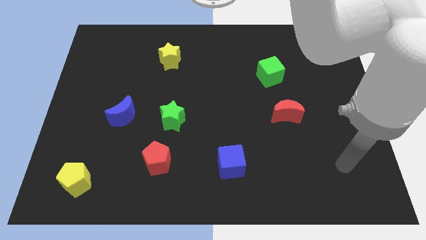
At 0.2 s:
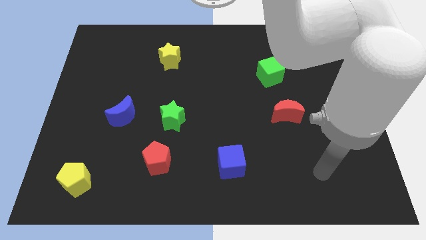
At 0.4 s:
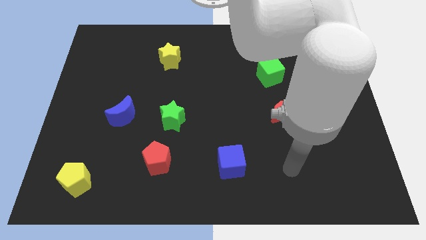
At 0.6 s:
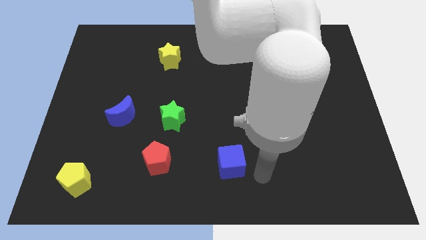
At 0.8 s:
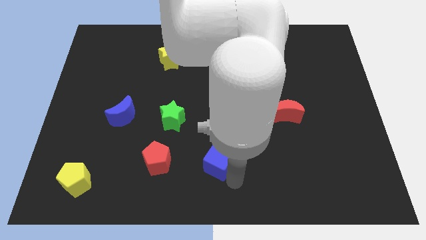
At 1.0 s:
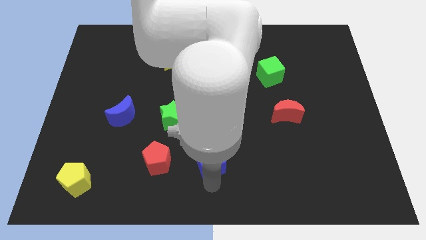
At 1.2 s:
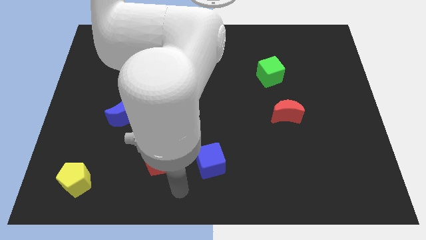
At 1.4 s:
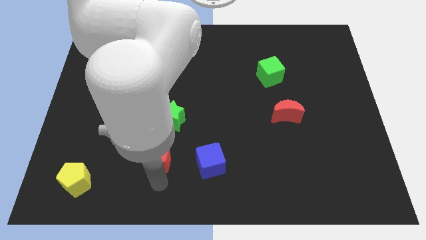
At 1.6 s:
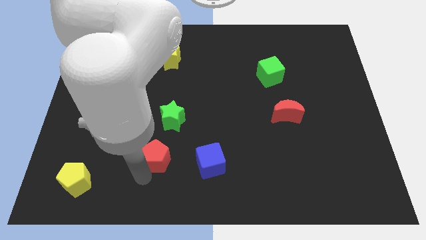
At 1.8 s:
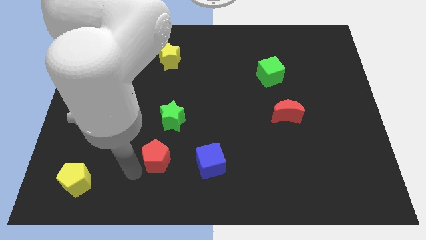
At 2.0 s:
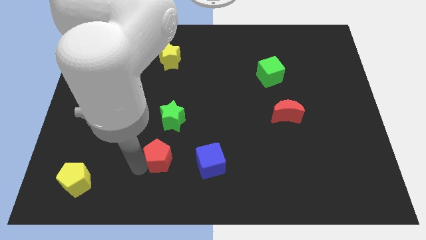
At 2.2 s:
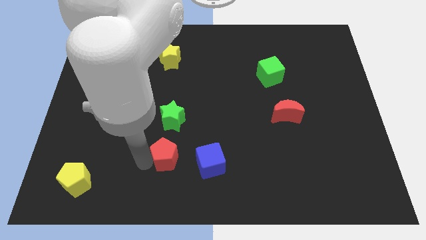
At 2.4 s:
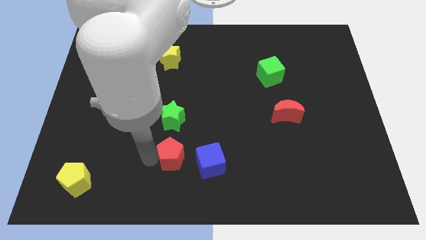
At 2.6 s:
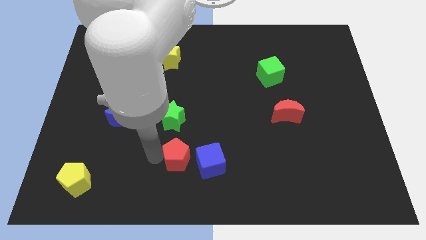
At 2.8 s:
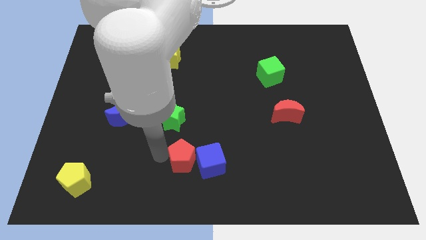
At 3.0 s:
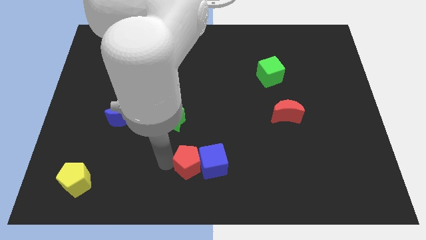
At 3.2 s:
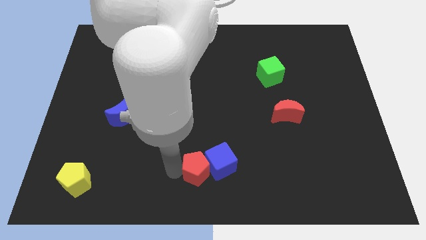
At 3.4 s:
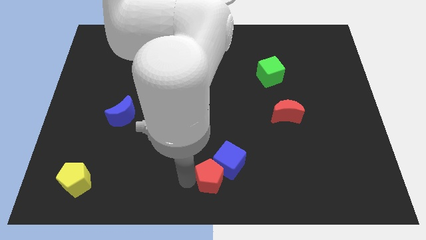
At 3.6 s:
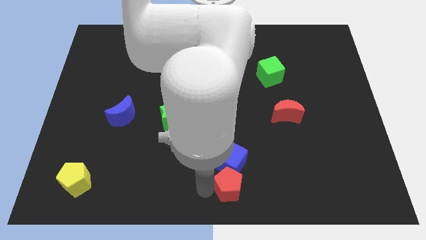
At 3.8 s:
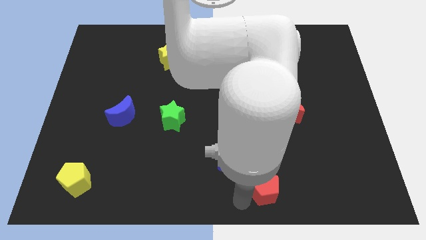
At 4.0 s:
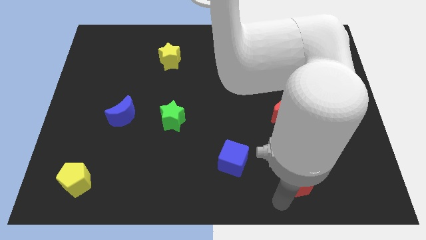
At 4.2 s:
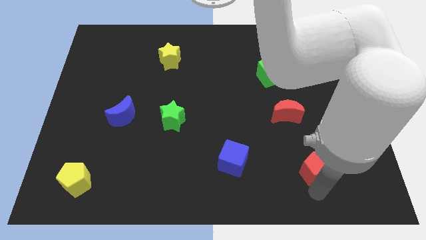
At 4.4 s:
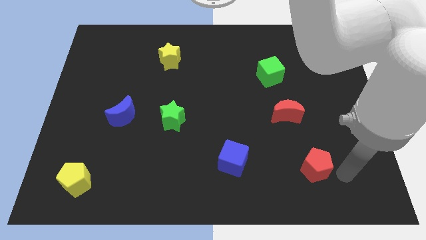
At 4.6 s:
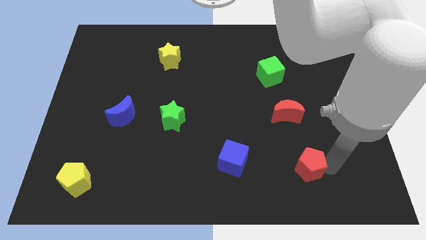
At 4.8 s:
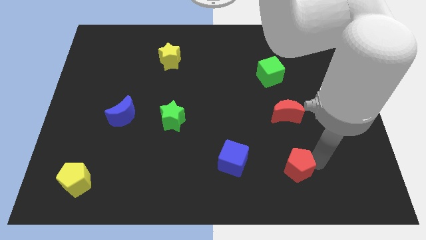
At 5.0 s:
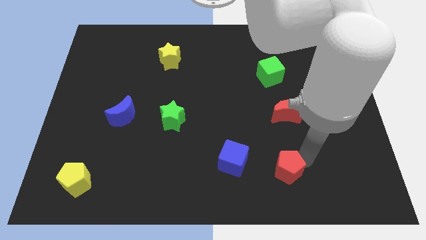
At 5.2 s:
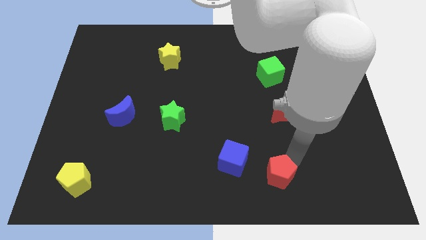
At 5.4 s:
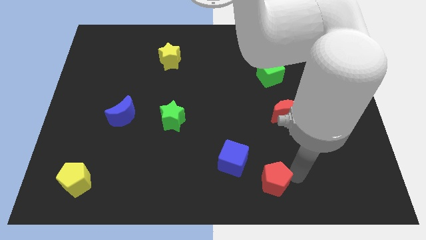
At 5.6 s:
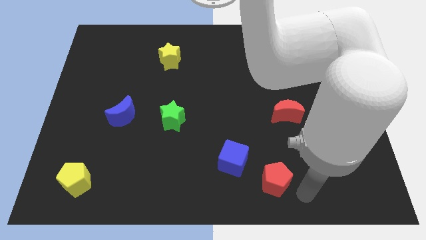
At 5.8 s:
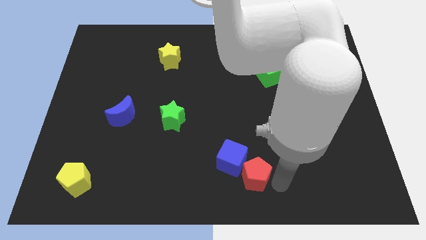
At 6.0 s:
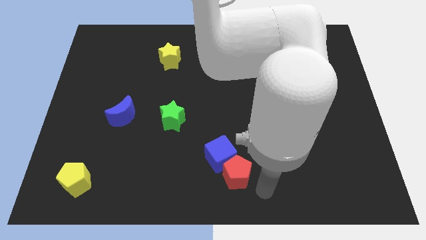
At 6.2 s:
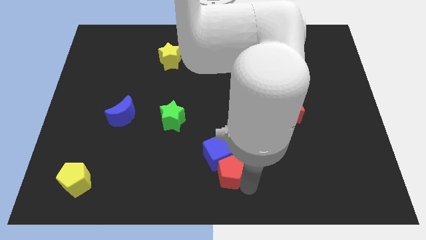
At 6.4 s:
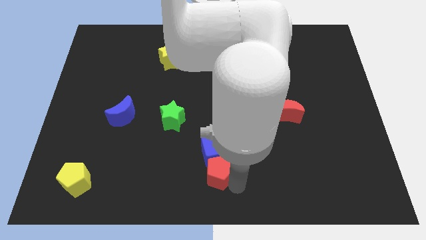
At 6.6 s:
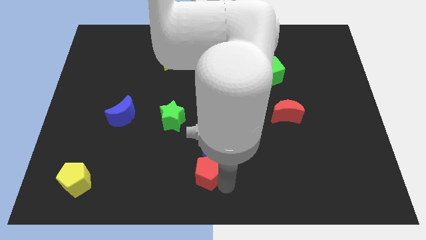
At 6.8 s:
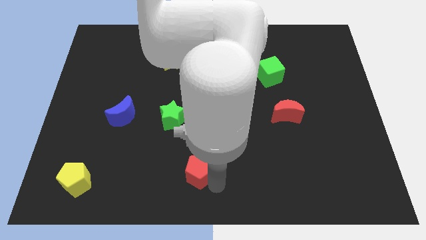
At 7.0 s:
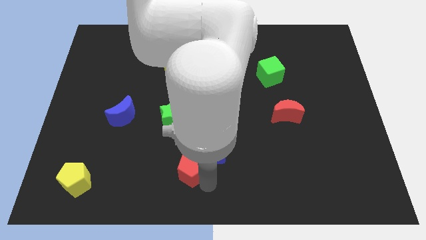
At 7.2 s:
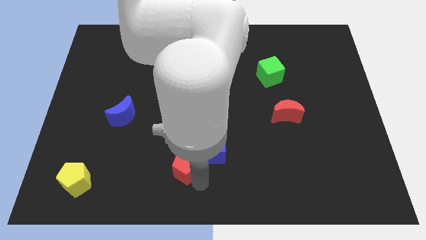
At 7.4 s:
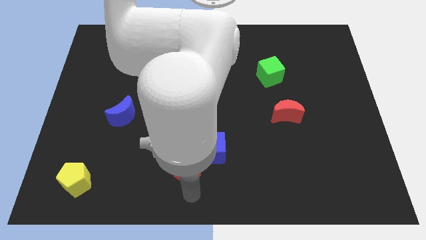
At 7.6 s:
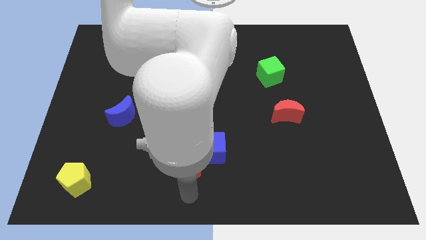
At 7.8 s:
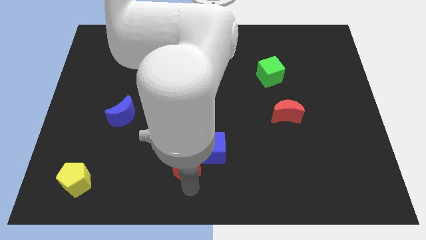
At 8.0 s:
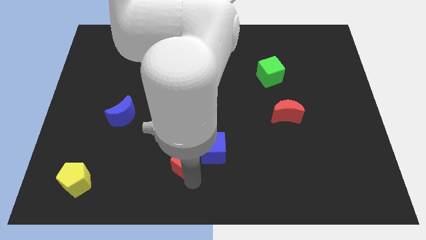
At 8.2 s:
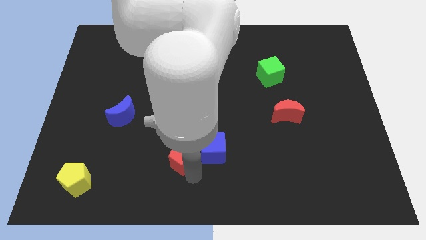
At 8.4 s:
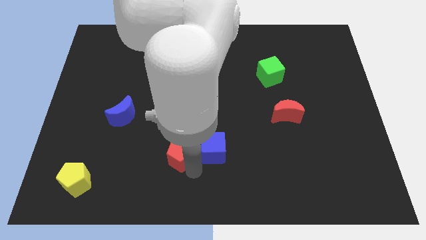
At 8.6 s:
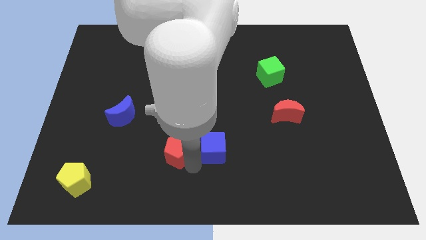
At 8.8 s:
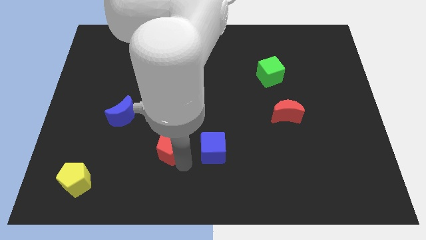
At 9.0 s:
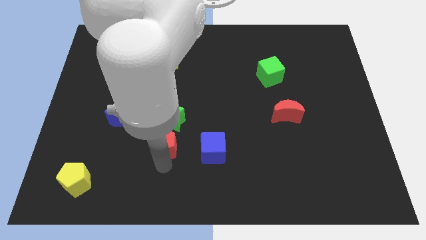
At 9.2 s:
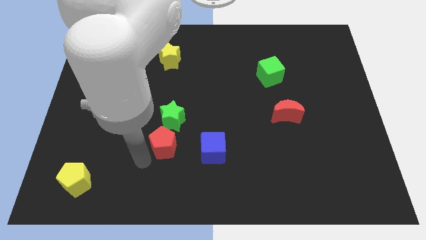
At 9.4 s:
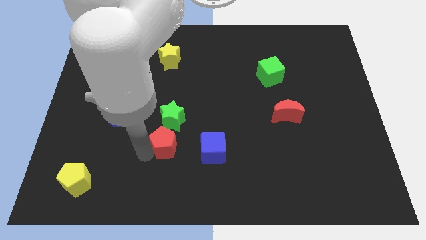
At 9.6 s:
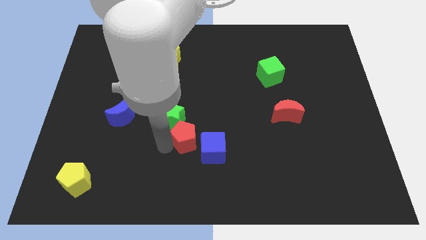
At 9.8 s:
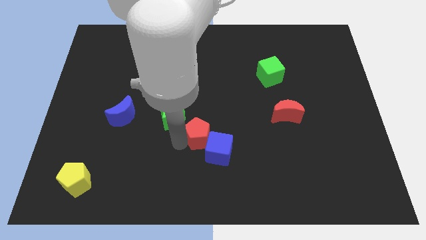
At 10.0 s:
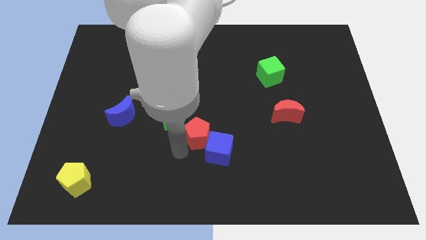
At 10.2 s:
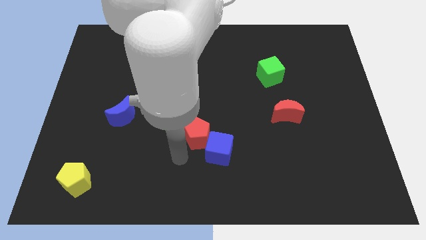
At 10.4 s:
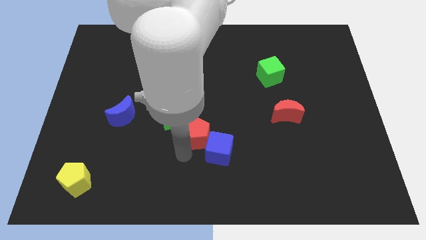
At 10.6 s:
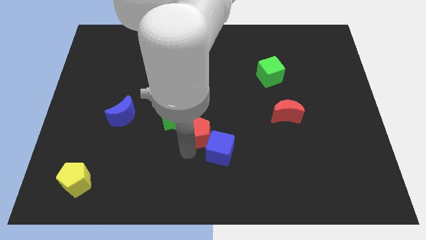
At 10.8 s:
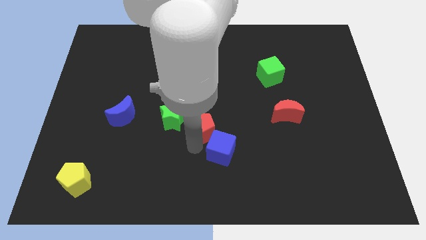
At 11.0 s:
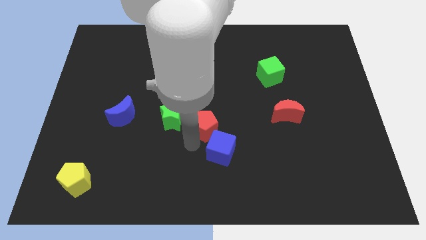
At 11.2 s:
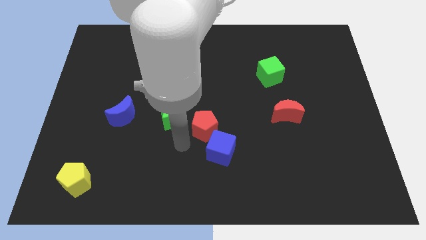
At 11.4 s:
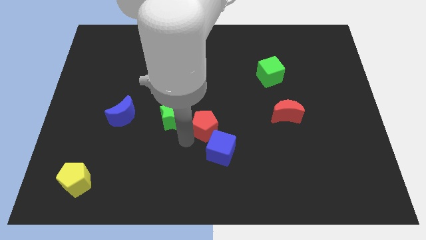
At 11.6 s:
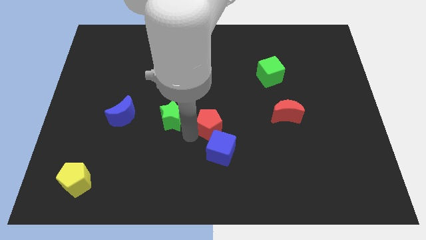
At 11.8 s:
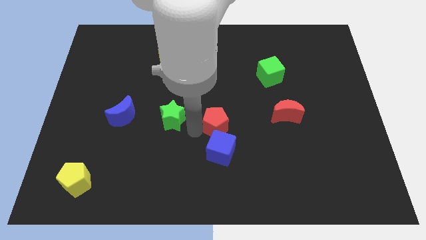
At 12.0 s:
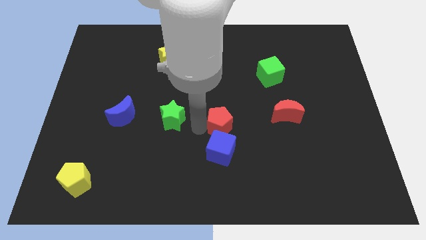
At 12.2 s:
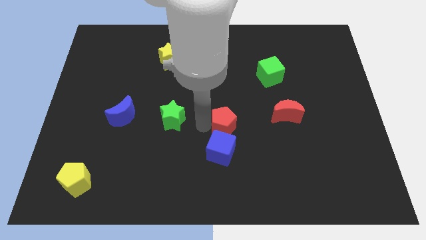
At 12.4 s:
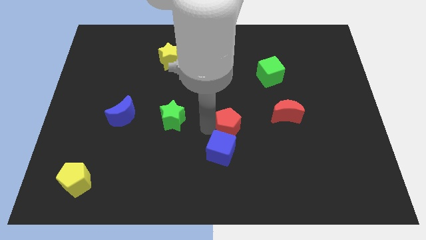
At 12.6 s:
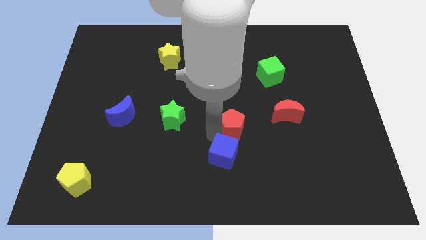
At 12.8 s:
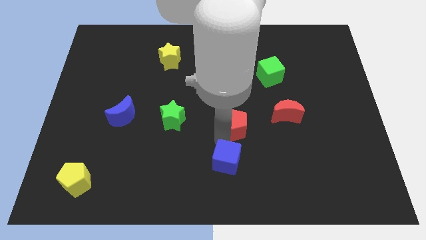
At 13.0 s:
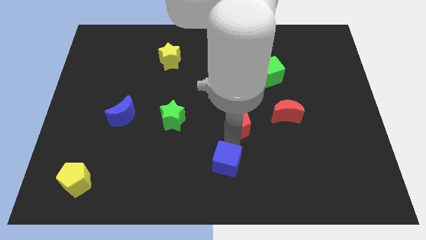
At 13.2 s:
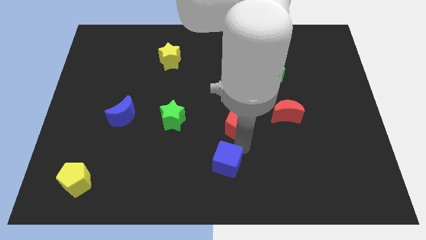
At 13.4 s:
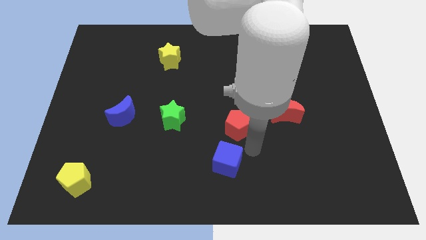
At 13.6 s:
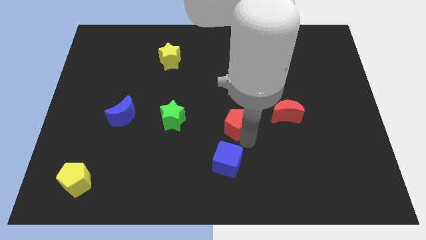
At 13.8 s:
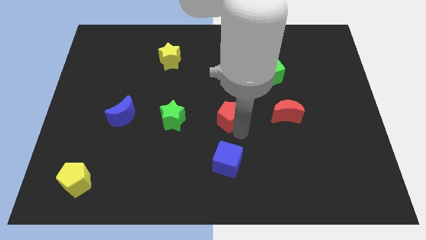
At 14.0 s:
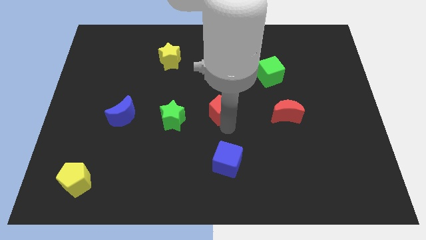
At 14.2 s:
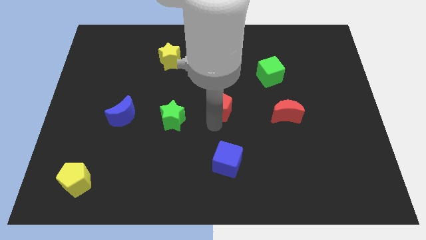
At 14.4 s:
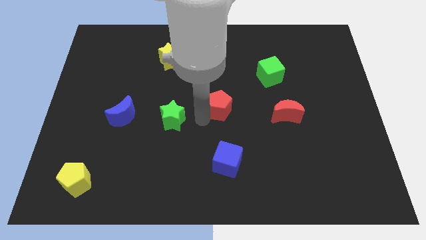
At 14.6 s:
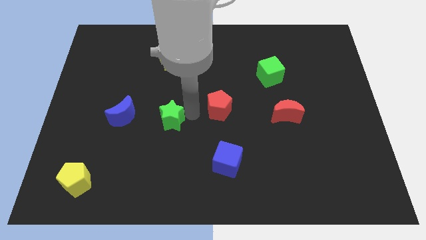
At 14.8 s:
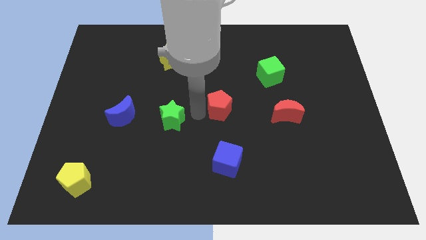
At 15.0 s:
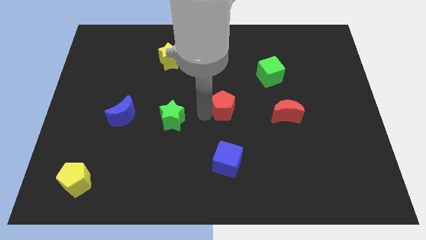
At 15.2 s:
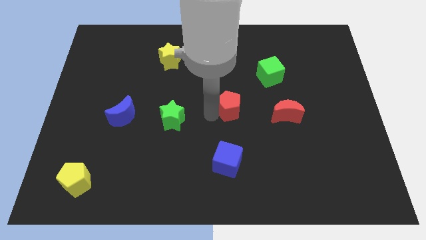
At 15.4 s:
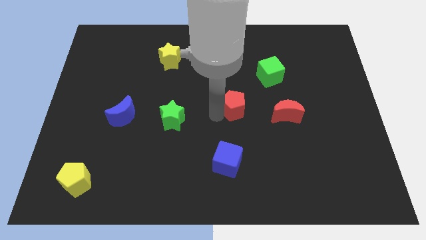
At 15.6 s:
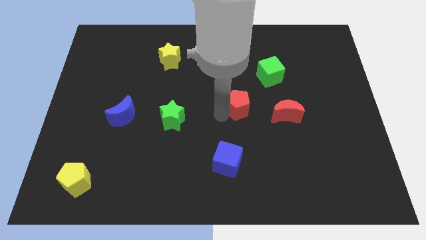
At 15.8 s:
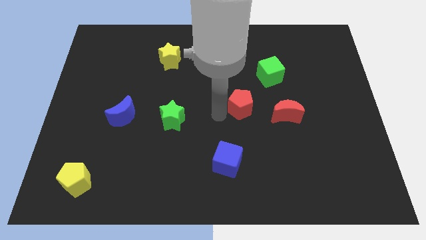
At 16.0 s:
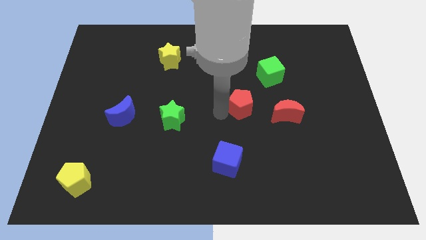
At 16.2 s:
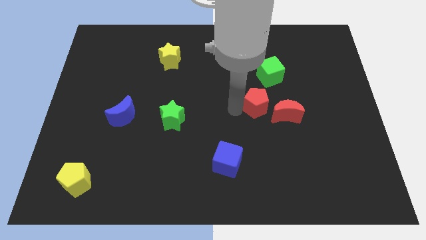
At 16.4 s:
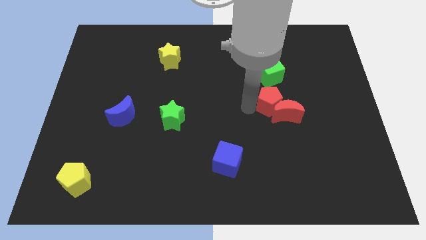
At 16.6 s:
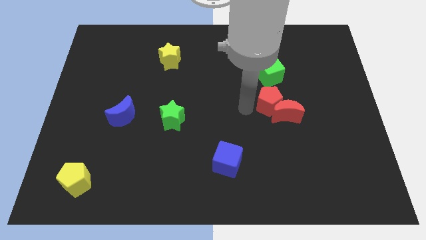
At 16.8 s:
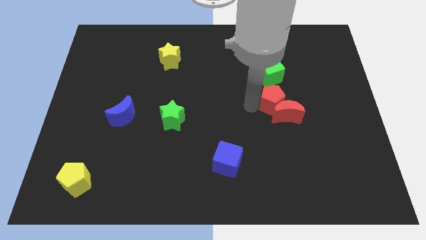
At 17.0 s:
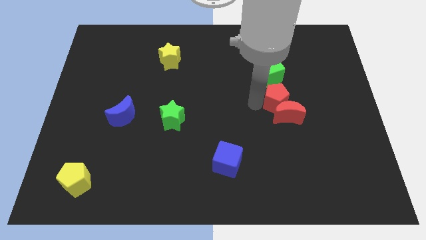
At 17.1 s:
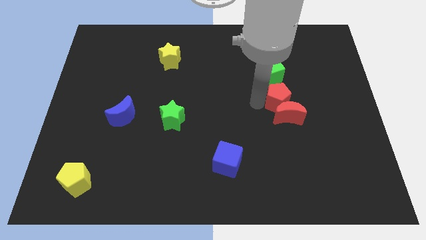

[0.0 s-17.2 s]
move the red pentagon diagonally up and to the right of the red moon
